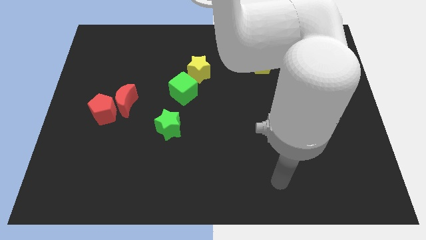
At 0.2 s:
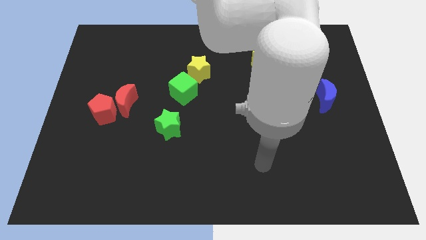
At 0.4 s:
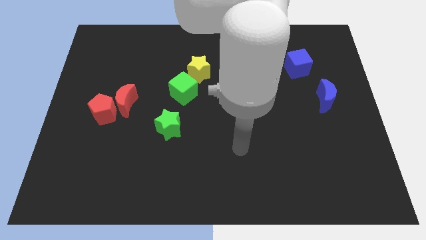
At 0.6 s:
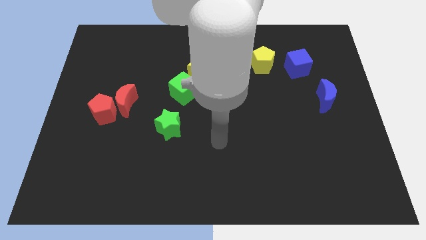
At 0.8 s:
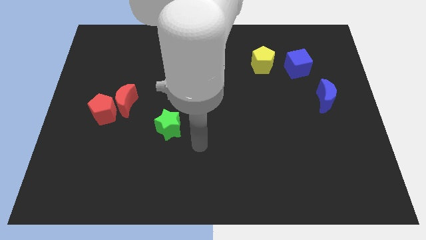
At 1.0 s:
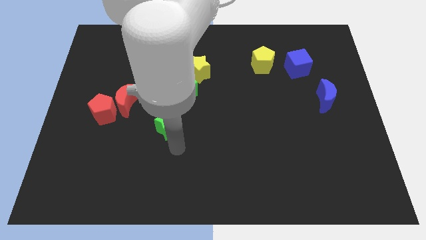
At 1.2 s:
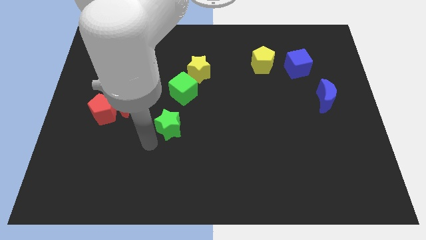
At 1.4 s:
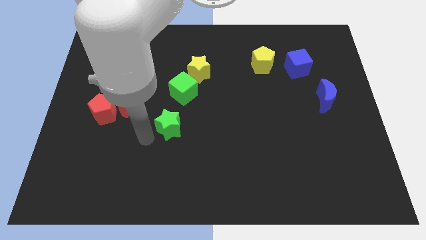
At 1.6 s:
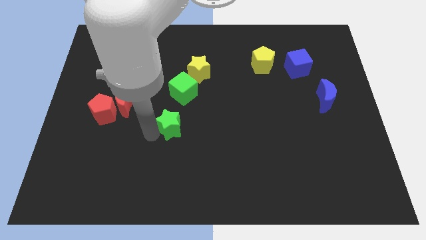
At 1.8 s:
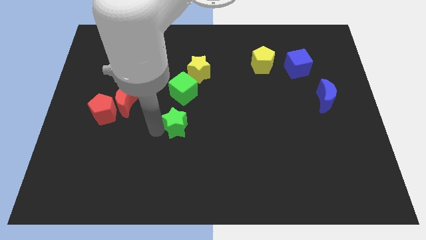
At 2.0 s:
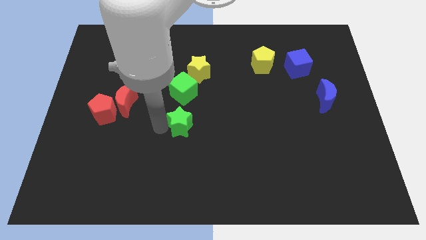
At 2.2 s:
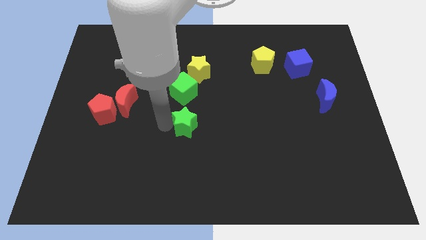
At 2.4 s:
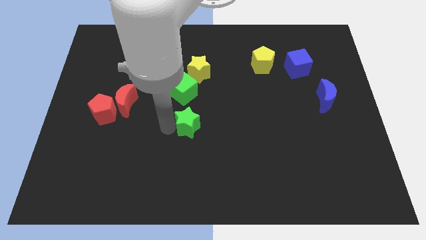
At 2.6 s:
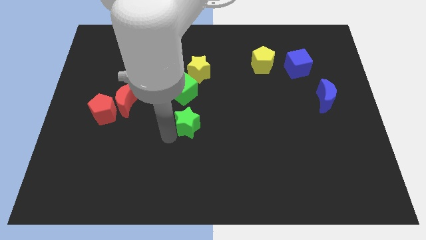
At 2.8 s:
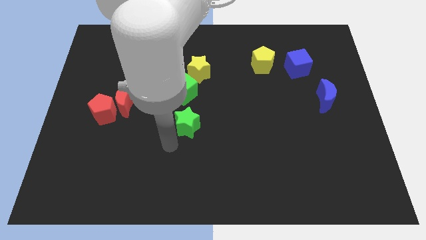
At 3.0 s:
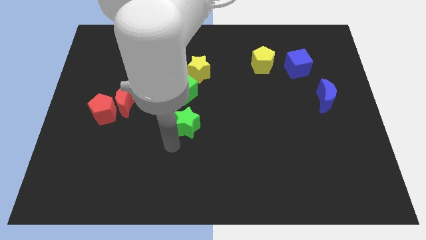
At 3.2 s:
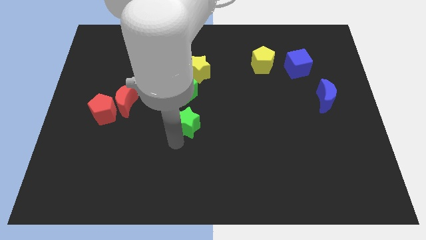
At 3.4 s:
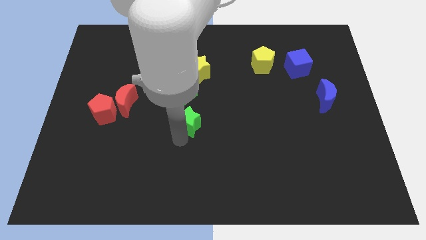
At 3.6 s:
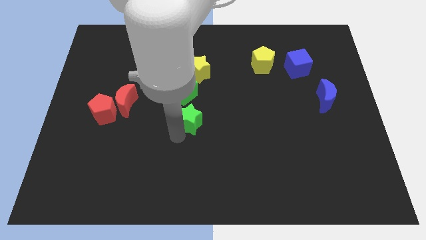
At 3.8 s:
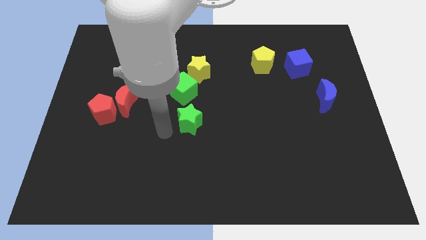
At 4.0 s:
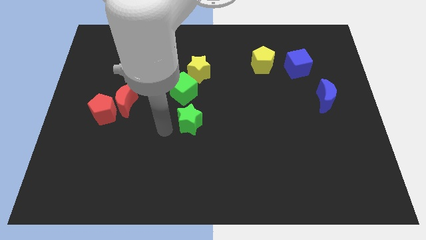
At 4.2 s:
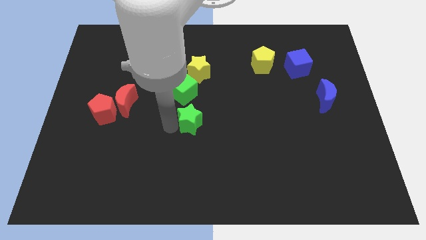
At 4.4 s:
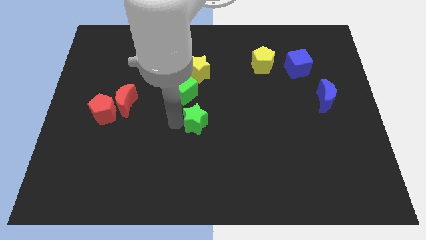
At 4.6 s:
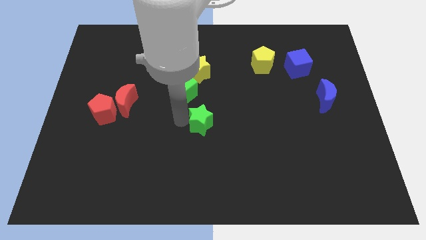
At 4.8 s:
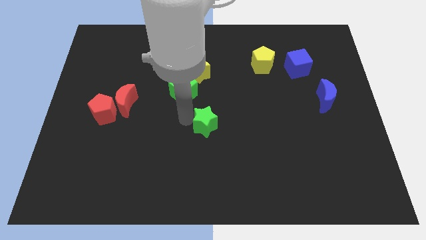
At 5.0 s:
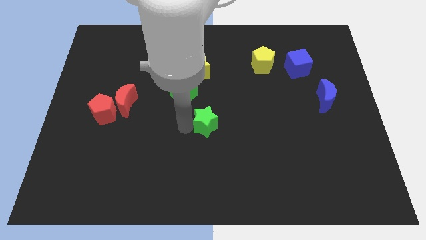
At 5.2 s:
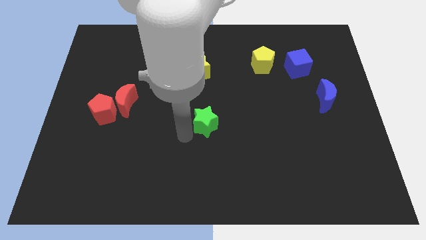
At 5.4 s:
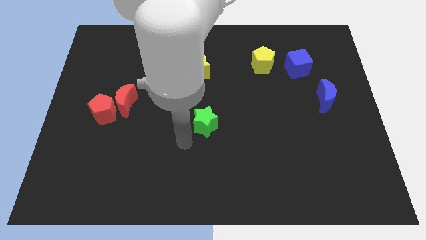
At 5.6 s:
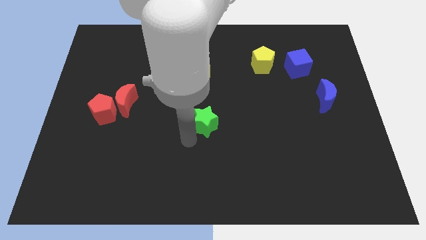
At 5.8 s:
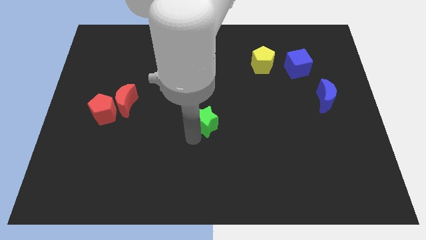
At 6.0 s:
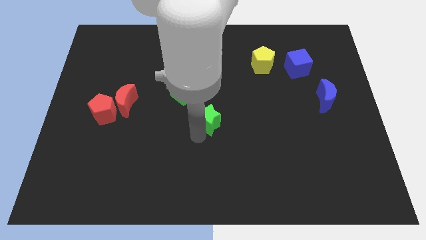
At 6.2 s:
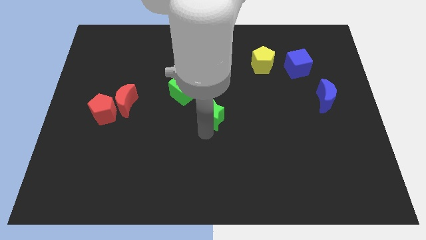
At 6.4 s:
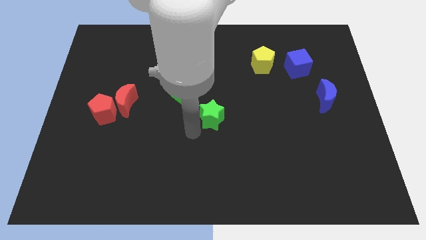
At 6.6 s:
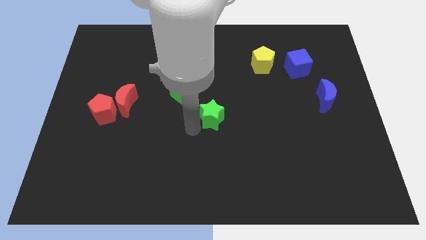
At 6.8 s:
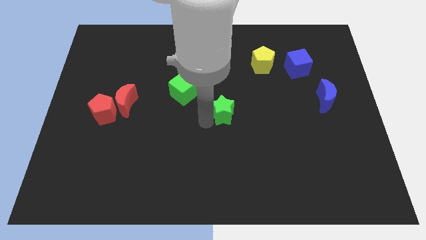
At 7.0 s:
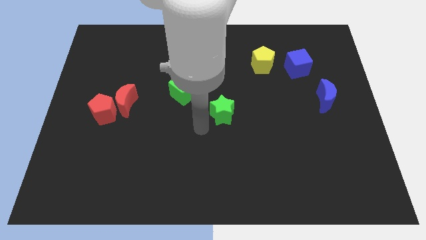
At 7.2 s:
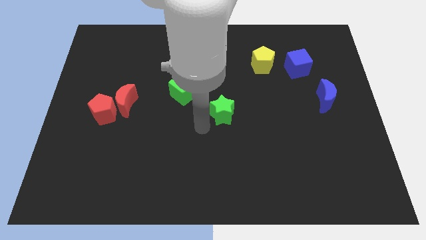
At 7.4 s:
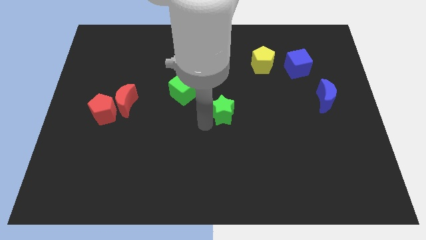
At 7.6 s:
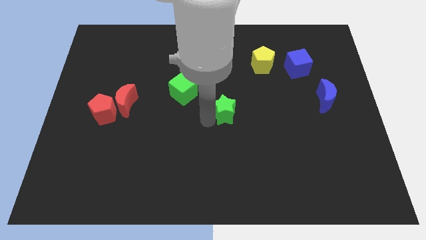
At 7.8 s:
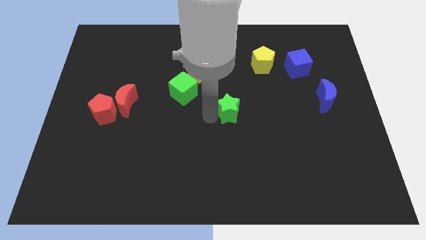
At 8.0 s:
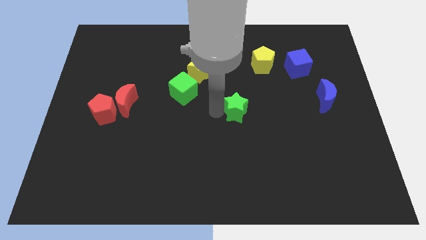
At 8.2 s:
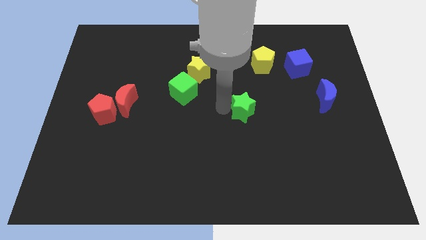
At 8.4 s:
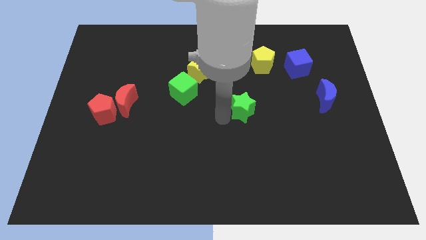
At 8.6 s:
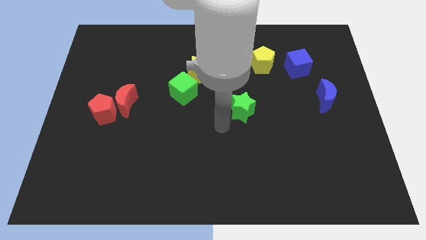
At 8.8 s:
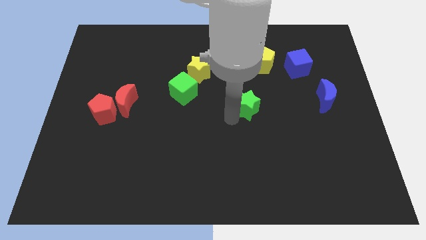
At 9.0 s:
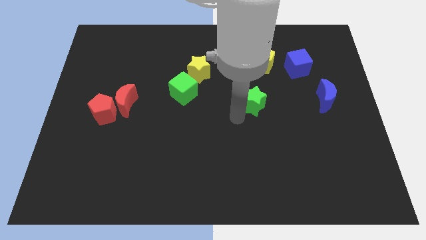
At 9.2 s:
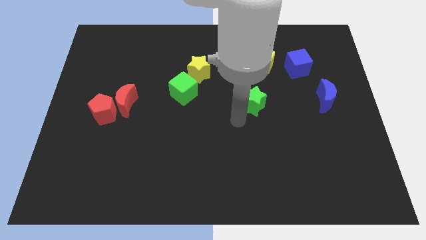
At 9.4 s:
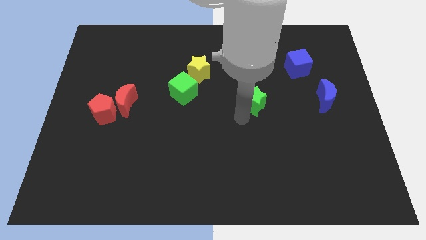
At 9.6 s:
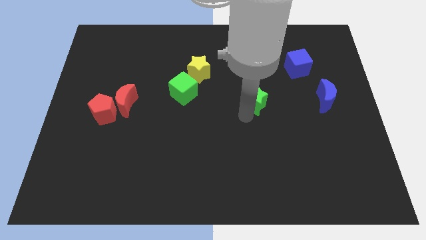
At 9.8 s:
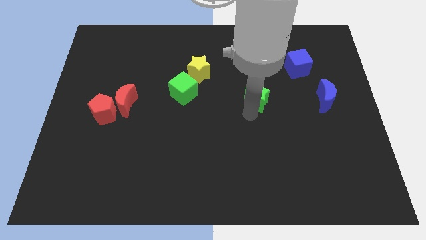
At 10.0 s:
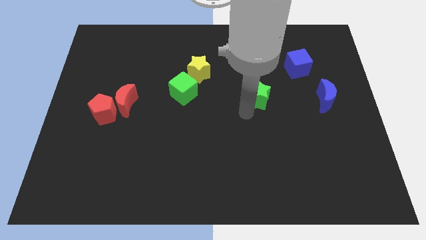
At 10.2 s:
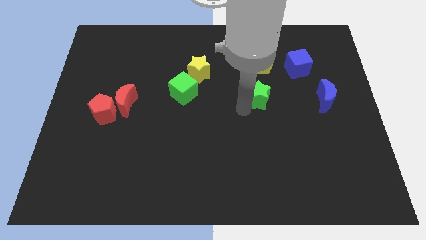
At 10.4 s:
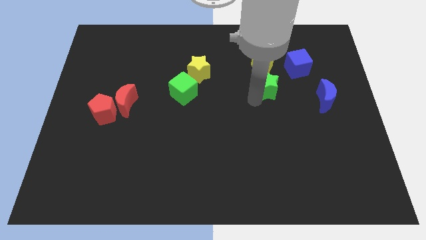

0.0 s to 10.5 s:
push the green star to the bottom left of the blue cube

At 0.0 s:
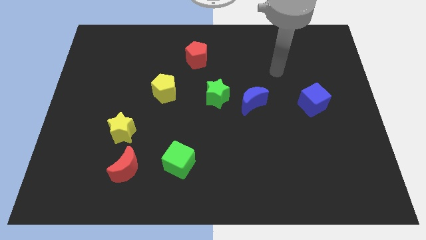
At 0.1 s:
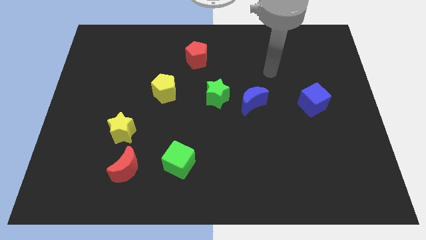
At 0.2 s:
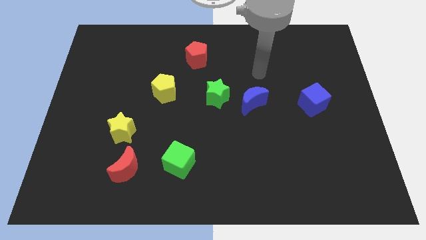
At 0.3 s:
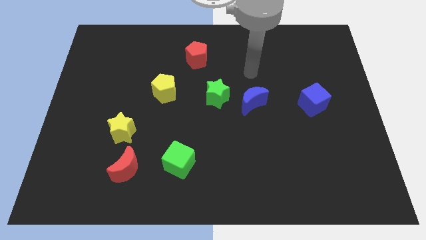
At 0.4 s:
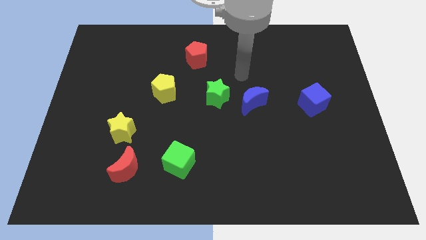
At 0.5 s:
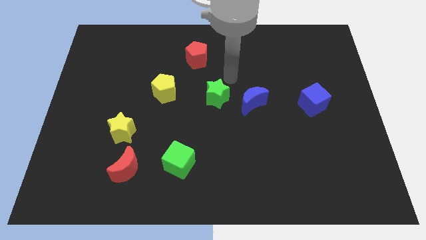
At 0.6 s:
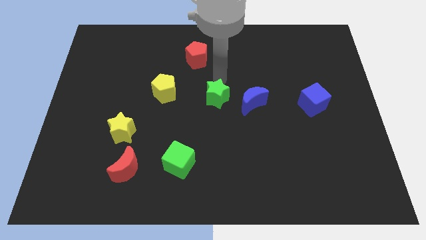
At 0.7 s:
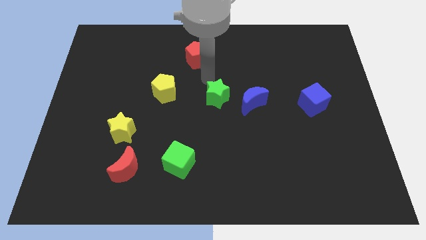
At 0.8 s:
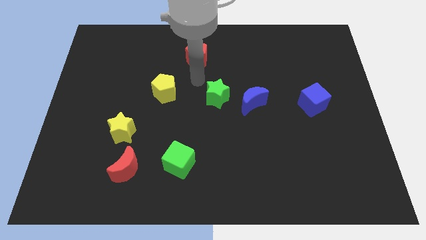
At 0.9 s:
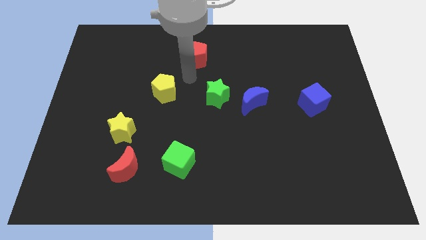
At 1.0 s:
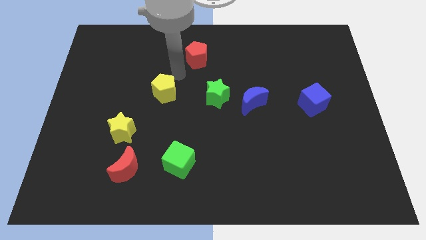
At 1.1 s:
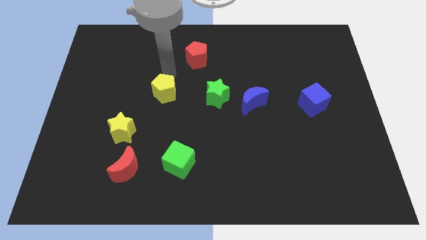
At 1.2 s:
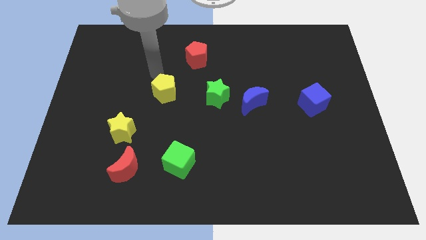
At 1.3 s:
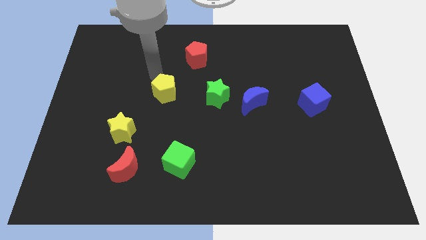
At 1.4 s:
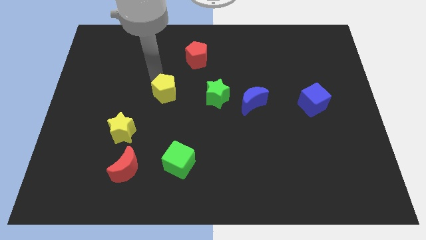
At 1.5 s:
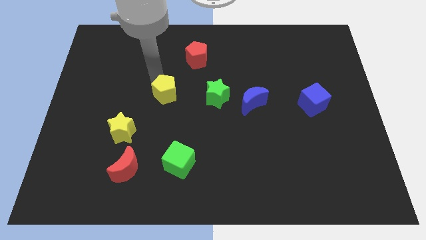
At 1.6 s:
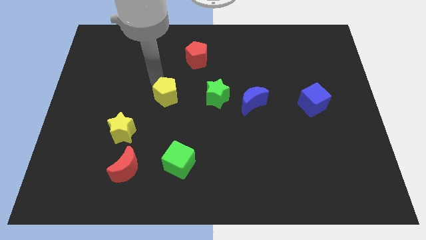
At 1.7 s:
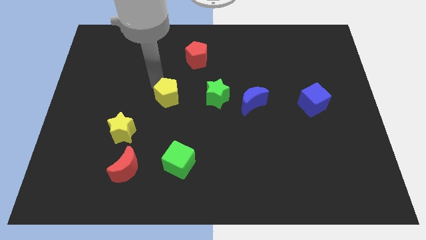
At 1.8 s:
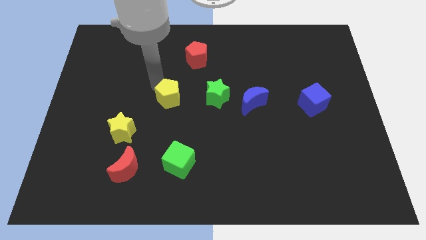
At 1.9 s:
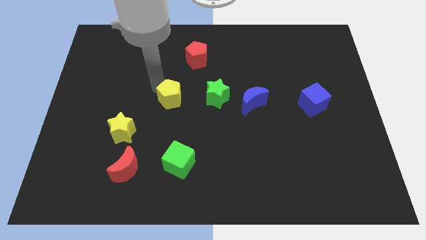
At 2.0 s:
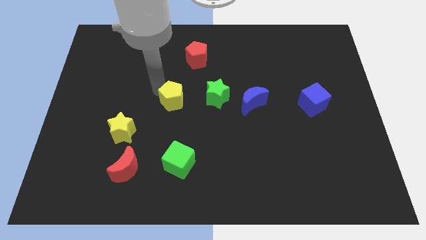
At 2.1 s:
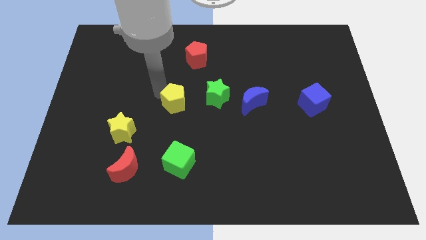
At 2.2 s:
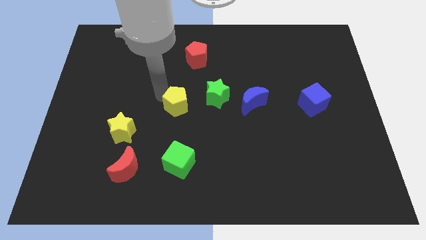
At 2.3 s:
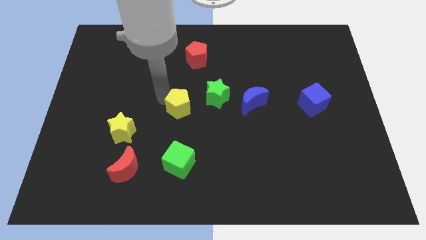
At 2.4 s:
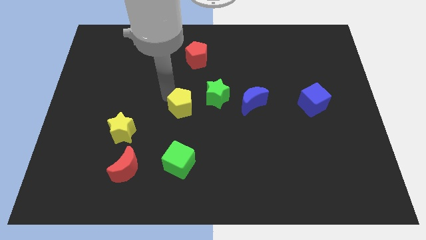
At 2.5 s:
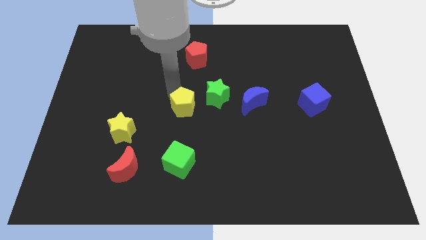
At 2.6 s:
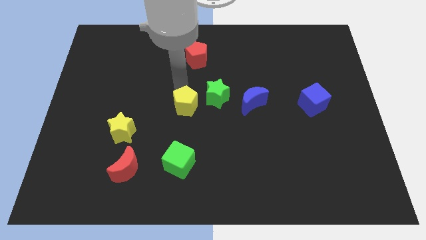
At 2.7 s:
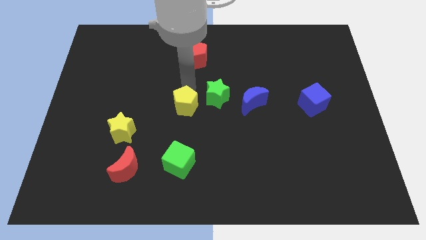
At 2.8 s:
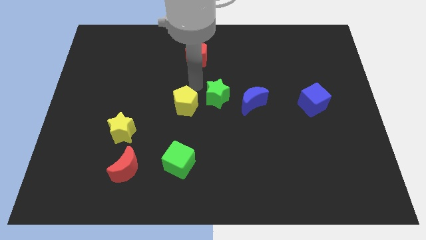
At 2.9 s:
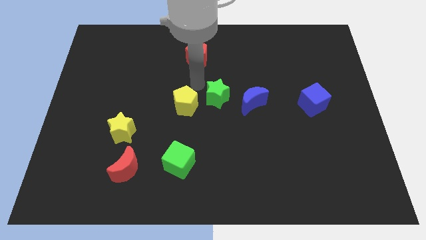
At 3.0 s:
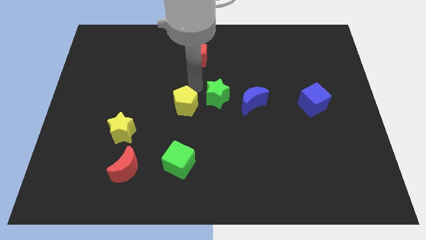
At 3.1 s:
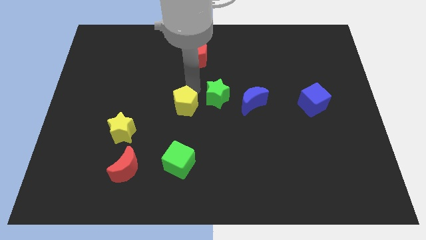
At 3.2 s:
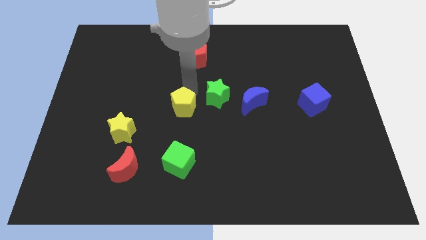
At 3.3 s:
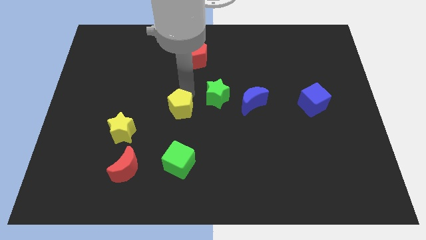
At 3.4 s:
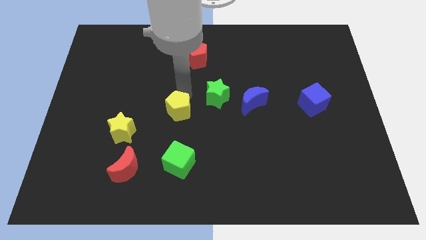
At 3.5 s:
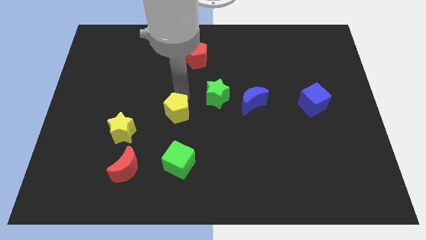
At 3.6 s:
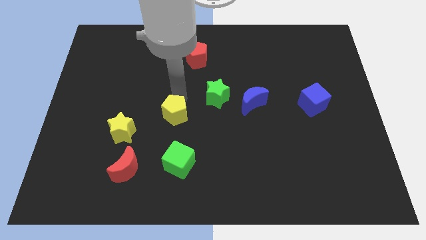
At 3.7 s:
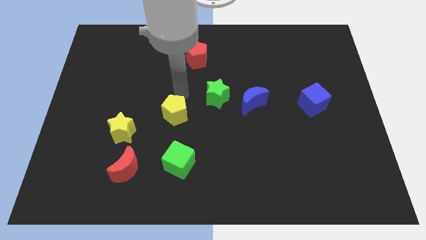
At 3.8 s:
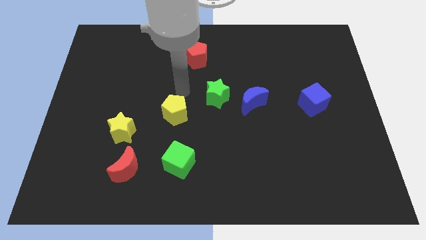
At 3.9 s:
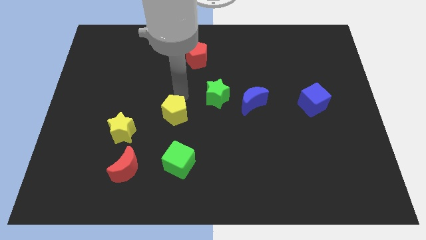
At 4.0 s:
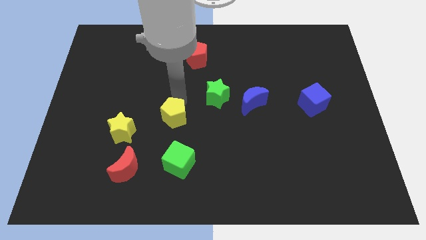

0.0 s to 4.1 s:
slide the yellow pentagon to the right side of the yellow star
